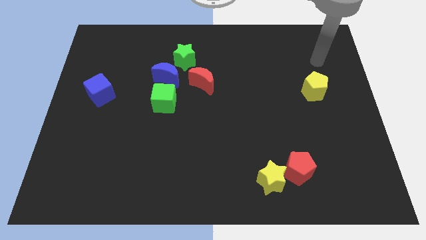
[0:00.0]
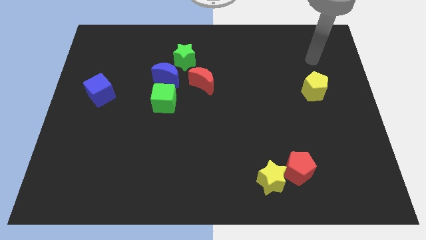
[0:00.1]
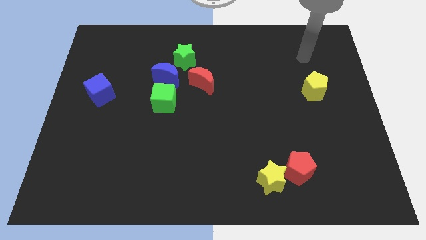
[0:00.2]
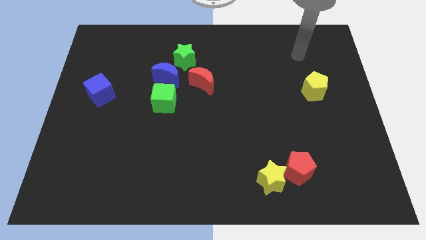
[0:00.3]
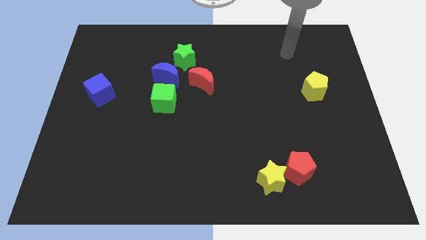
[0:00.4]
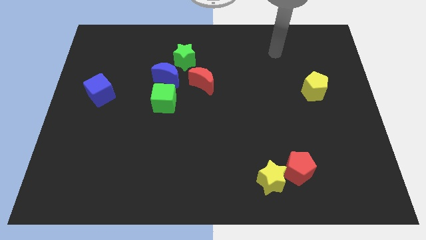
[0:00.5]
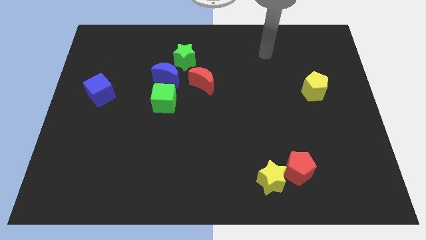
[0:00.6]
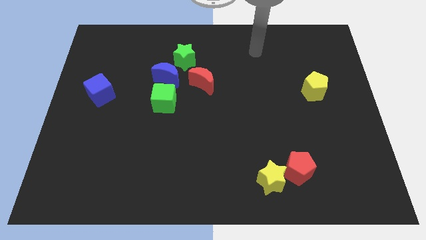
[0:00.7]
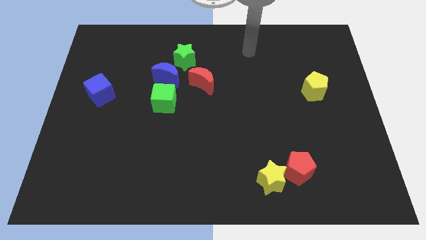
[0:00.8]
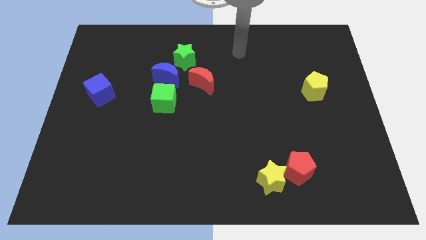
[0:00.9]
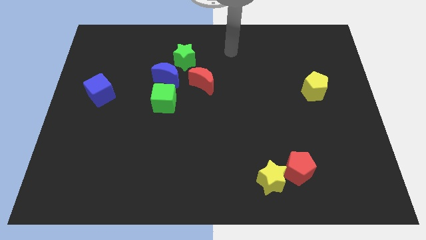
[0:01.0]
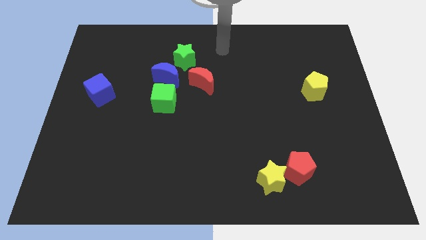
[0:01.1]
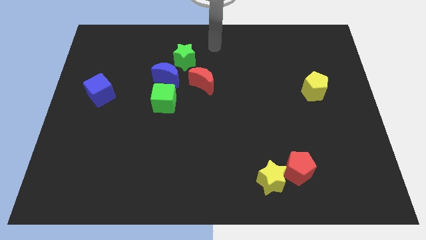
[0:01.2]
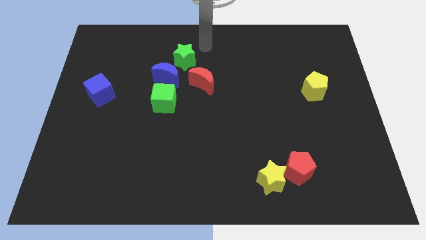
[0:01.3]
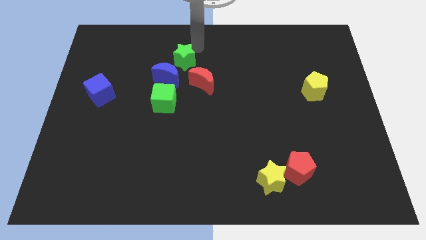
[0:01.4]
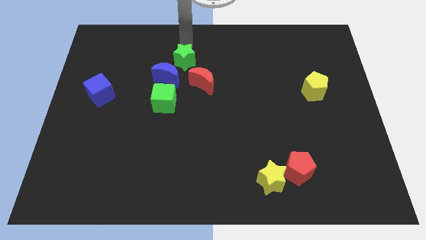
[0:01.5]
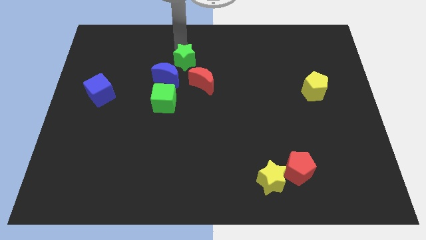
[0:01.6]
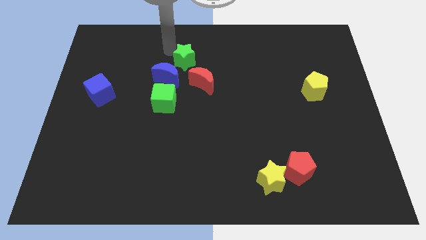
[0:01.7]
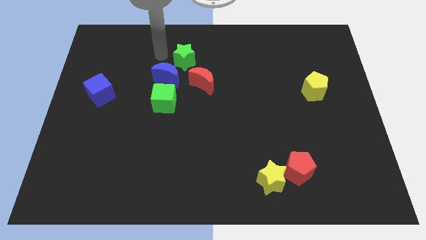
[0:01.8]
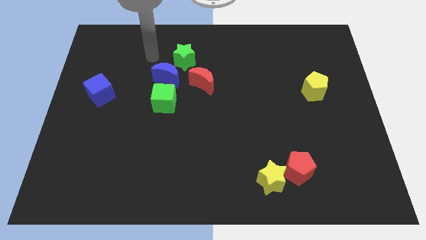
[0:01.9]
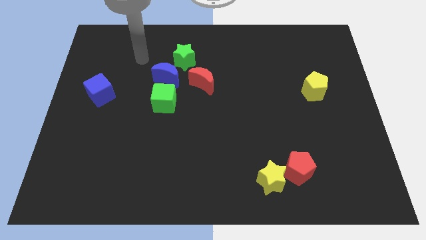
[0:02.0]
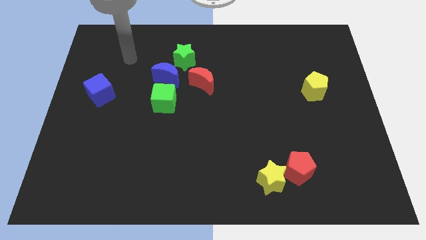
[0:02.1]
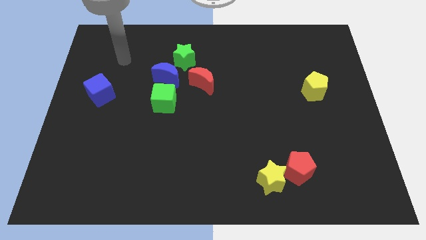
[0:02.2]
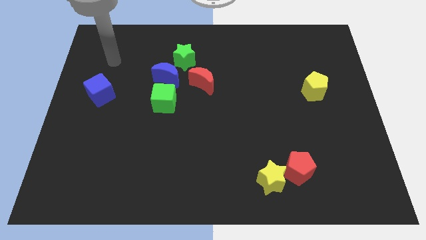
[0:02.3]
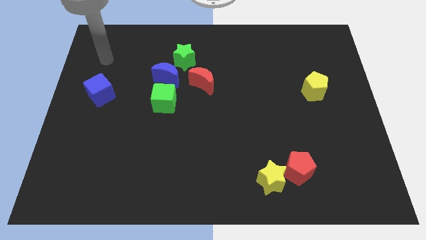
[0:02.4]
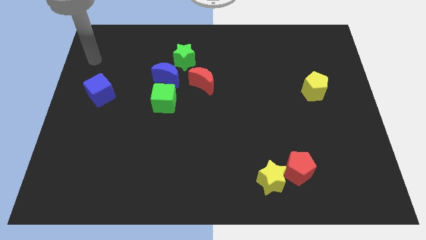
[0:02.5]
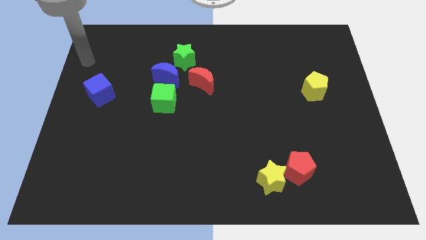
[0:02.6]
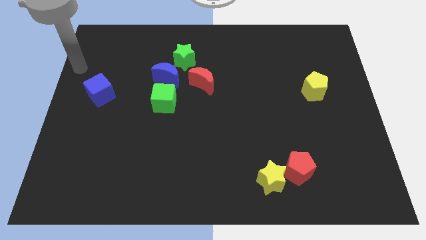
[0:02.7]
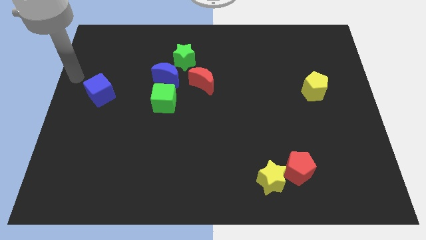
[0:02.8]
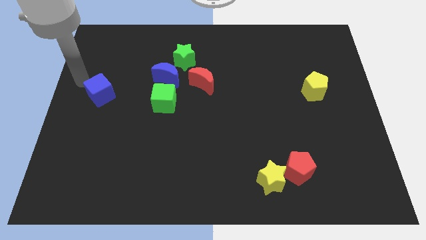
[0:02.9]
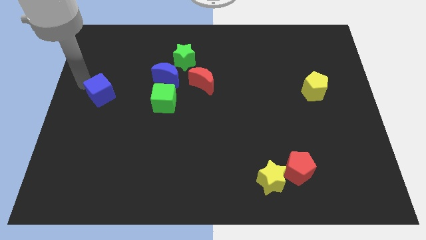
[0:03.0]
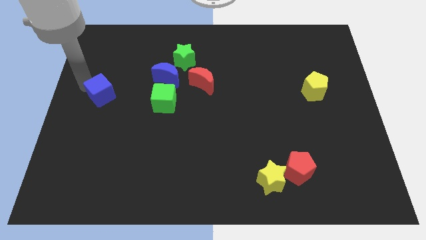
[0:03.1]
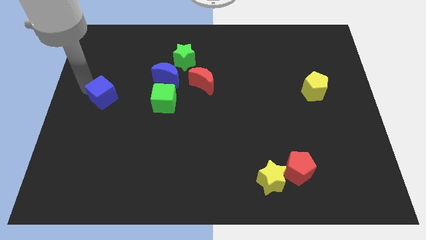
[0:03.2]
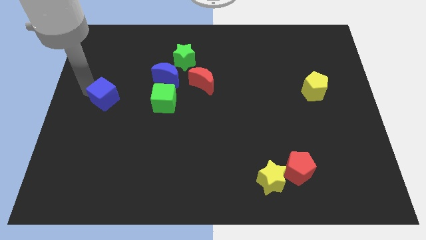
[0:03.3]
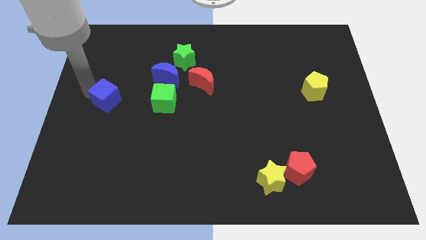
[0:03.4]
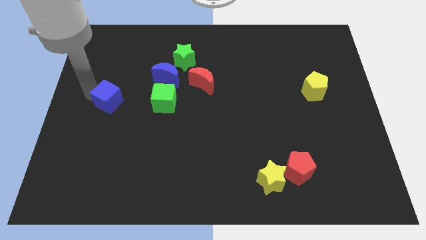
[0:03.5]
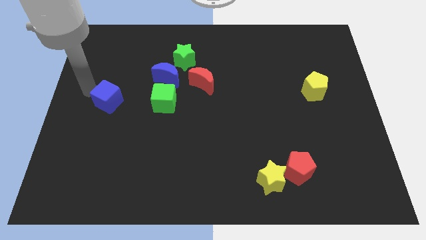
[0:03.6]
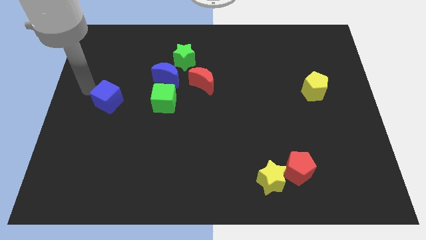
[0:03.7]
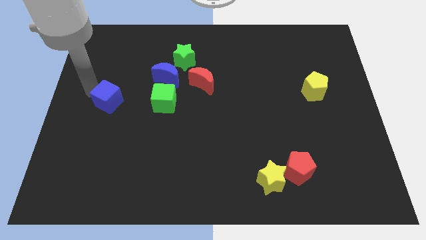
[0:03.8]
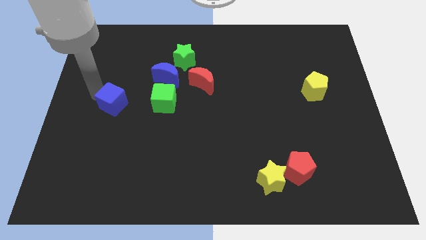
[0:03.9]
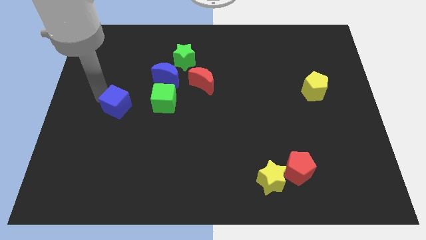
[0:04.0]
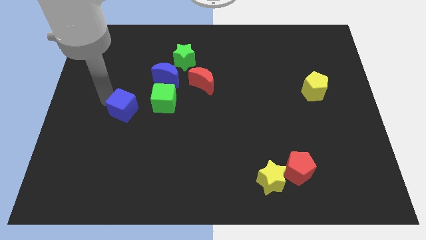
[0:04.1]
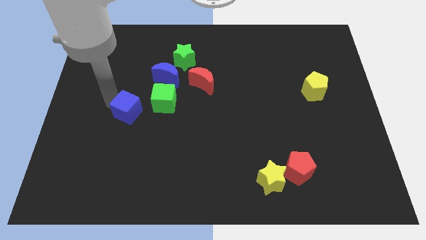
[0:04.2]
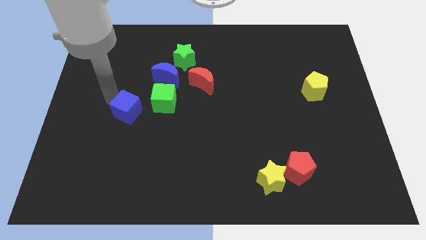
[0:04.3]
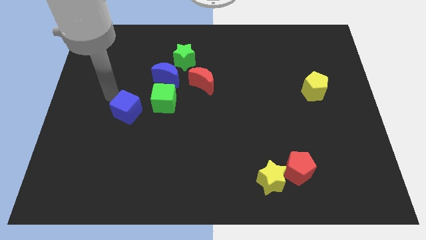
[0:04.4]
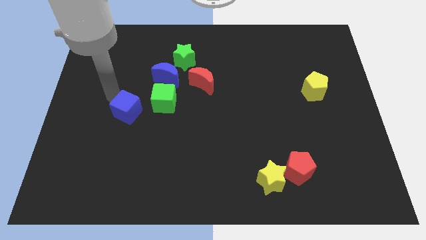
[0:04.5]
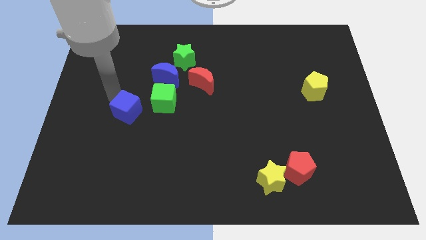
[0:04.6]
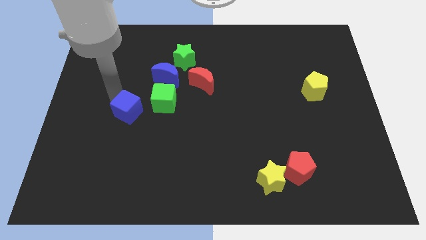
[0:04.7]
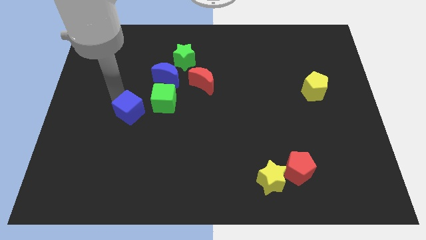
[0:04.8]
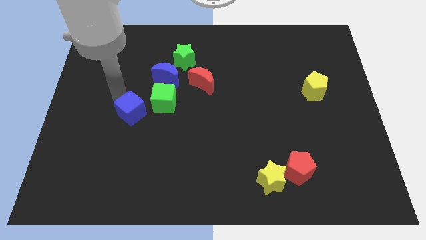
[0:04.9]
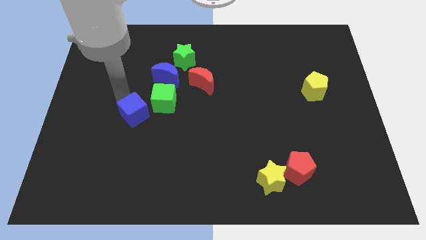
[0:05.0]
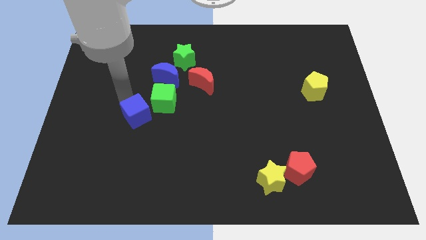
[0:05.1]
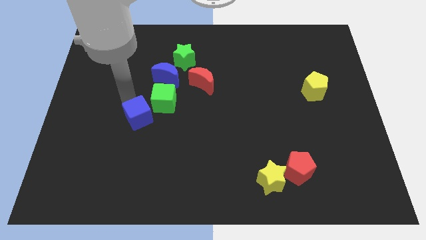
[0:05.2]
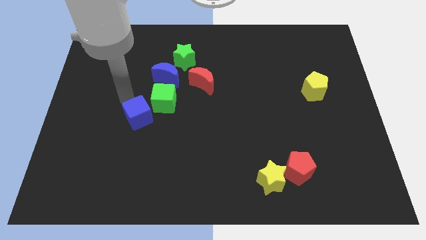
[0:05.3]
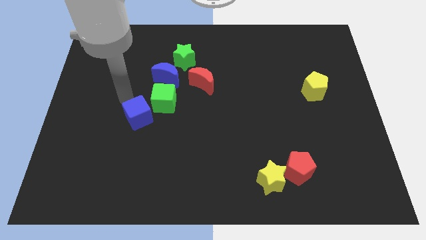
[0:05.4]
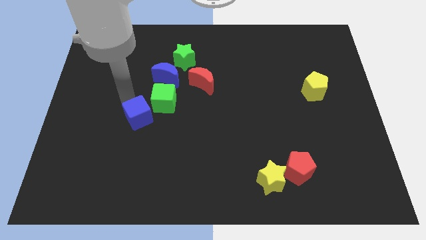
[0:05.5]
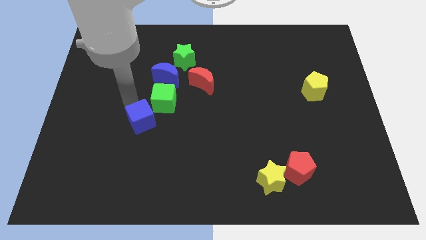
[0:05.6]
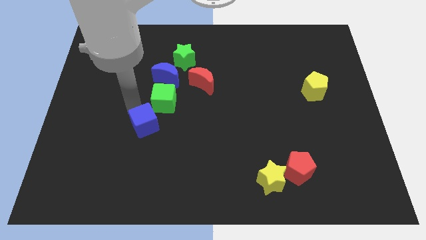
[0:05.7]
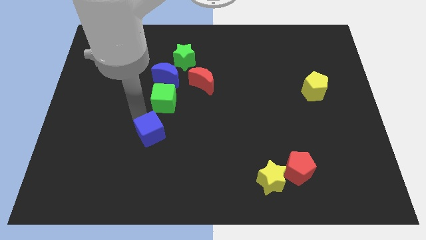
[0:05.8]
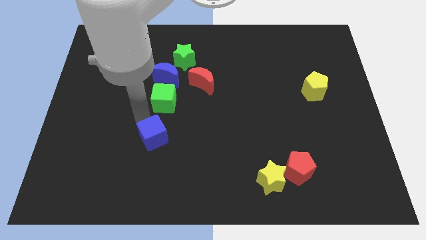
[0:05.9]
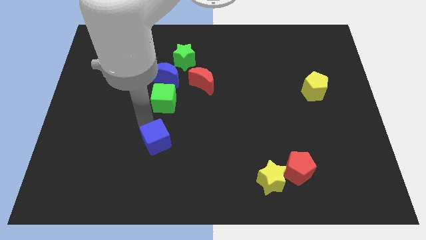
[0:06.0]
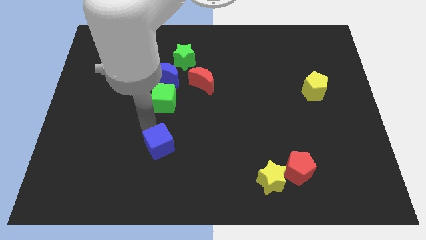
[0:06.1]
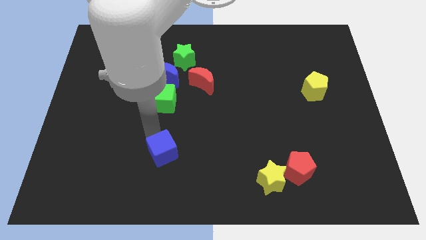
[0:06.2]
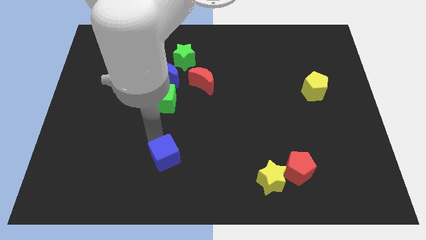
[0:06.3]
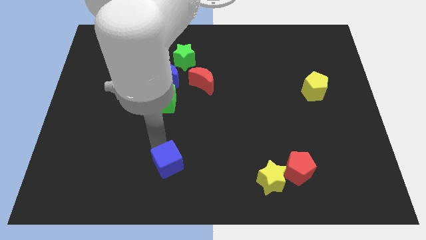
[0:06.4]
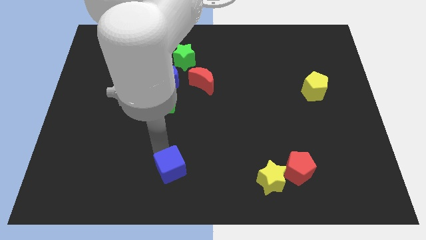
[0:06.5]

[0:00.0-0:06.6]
push the blue cube to the bottom side
